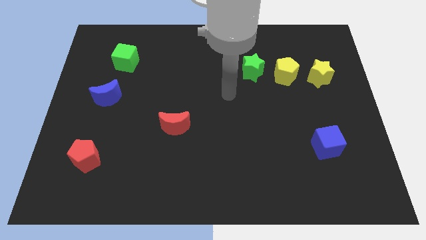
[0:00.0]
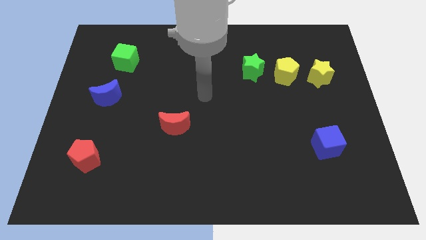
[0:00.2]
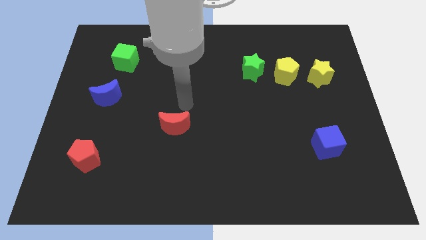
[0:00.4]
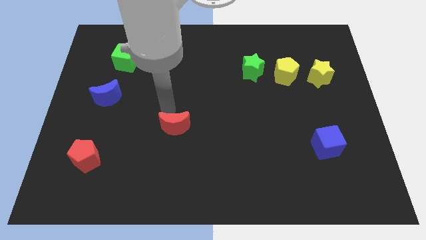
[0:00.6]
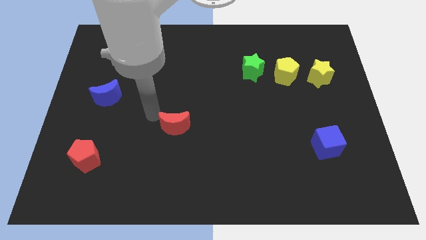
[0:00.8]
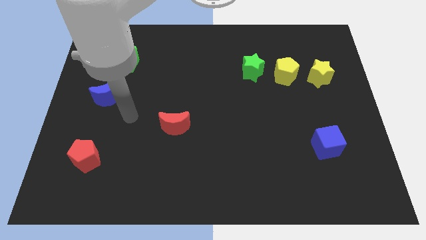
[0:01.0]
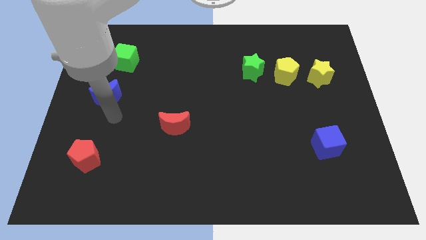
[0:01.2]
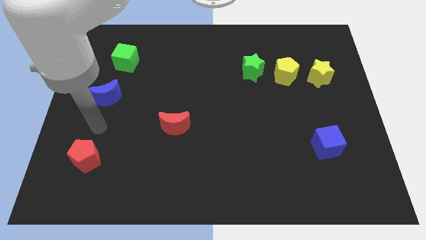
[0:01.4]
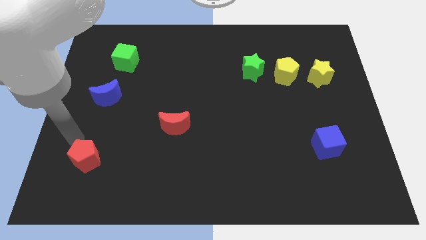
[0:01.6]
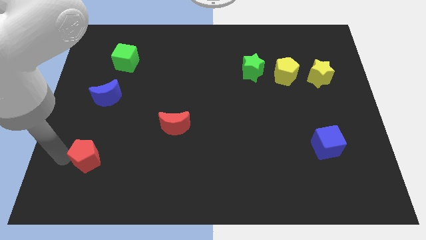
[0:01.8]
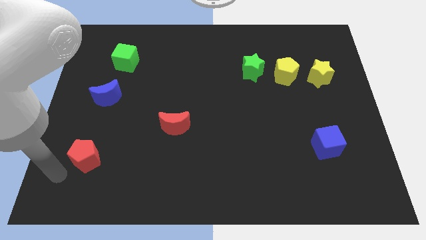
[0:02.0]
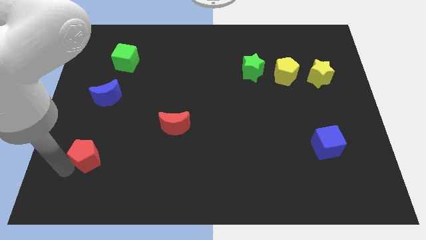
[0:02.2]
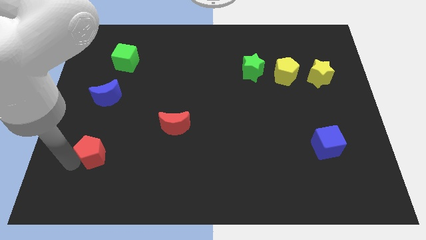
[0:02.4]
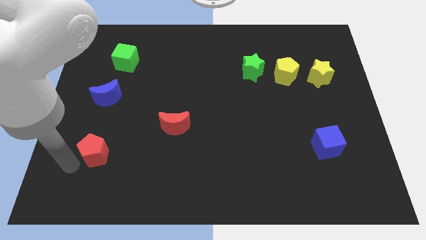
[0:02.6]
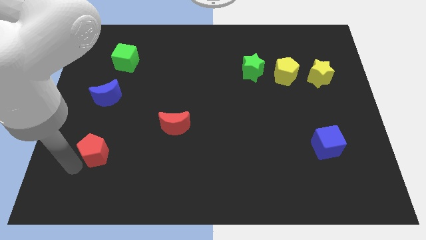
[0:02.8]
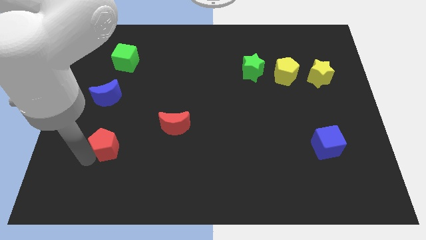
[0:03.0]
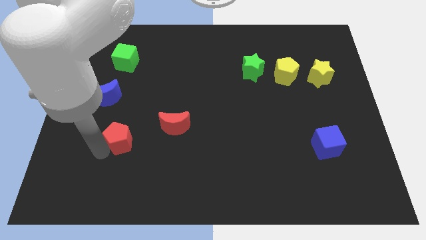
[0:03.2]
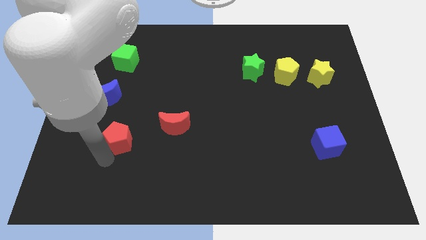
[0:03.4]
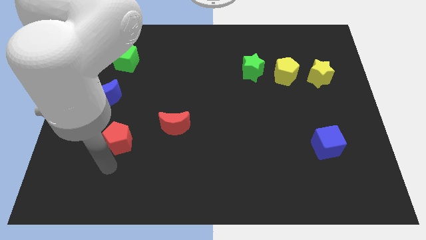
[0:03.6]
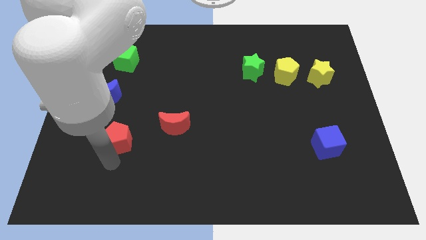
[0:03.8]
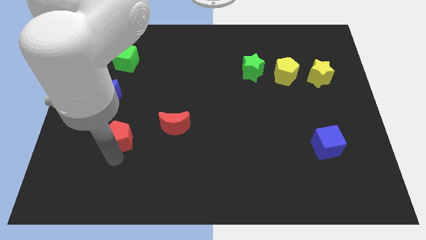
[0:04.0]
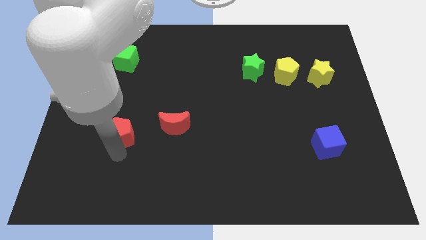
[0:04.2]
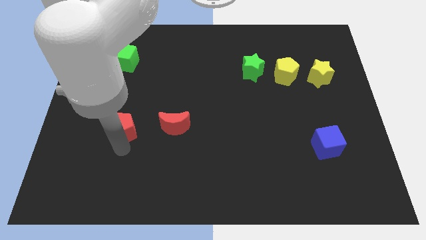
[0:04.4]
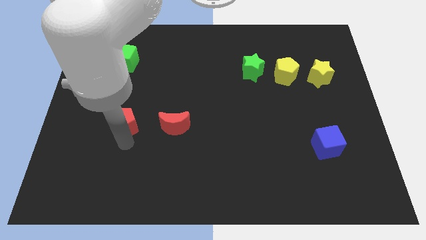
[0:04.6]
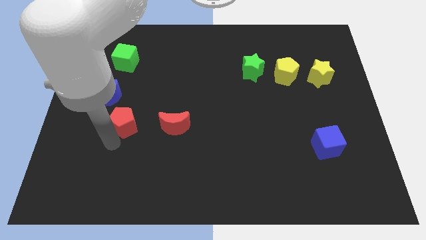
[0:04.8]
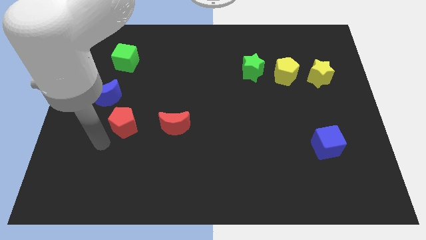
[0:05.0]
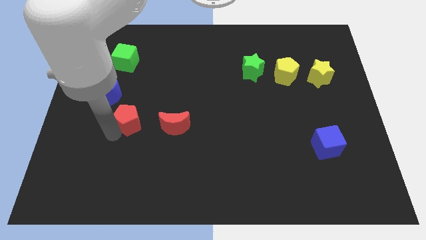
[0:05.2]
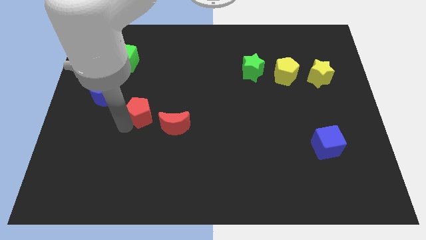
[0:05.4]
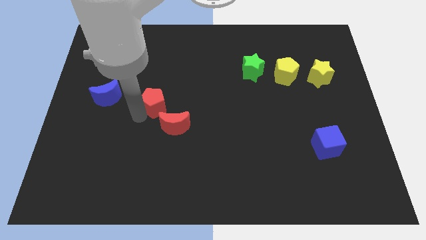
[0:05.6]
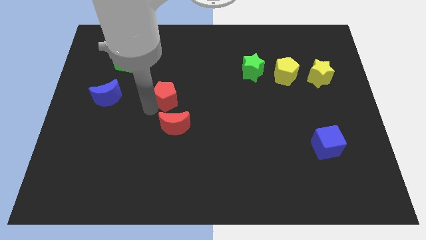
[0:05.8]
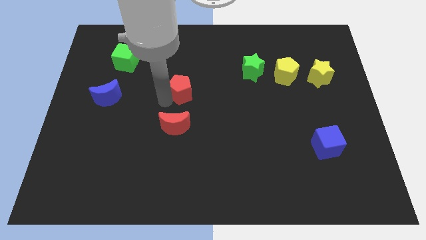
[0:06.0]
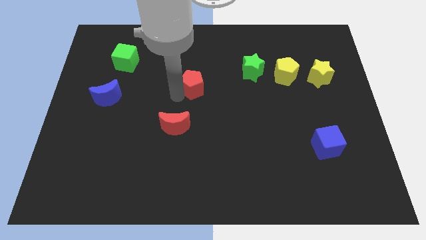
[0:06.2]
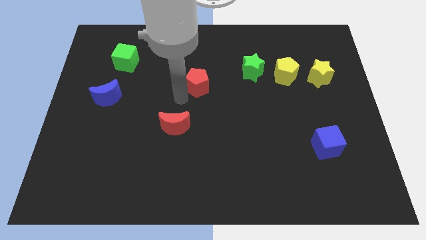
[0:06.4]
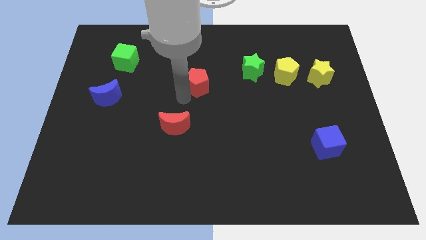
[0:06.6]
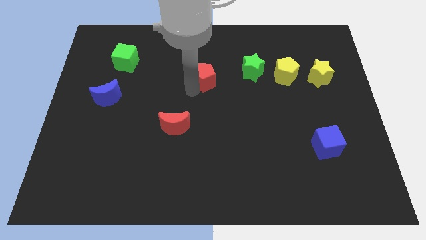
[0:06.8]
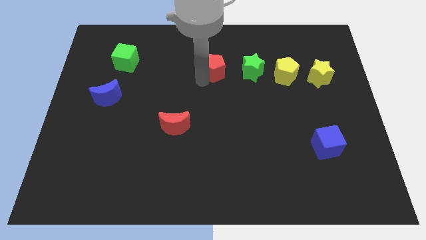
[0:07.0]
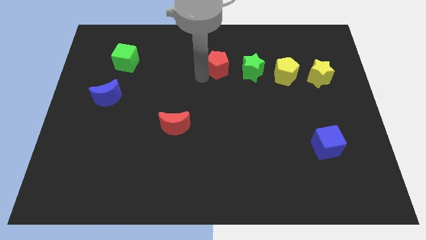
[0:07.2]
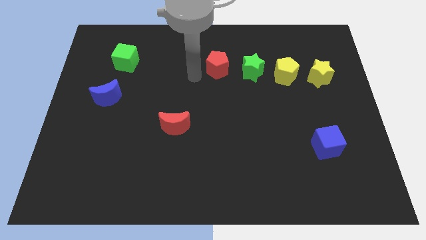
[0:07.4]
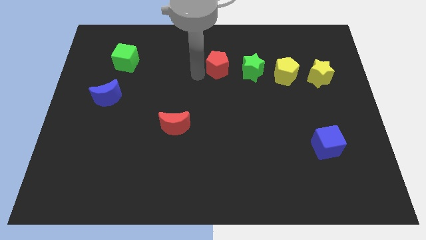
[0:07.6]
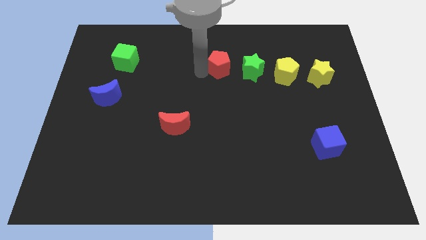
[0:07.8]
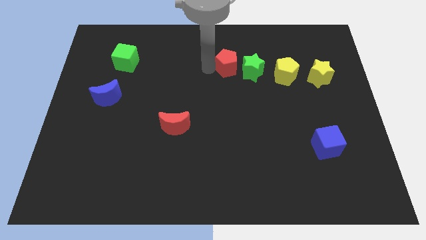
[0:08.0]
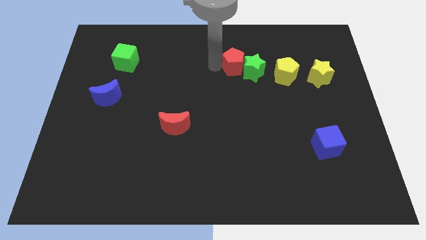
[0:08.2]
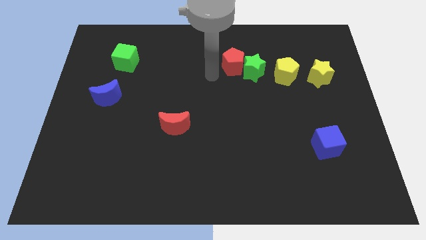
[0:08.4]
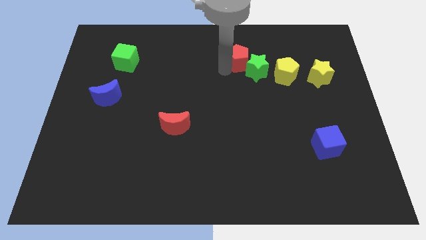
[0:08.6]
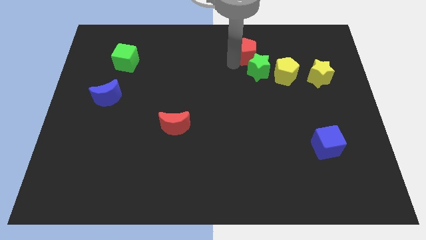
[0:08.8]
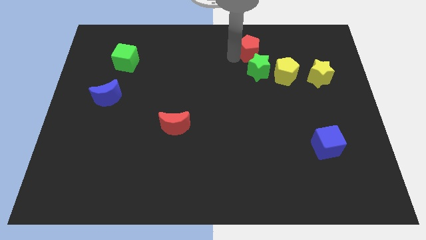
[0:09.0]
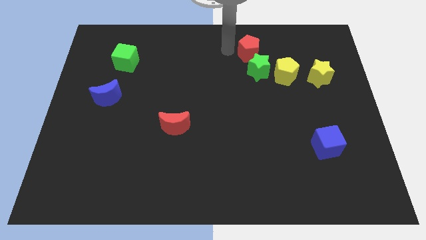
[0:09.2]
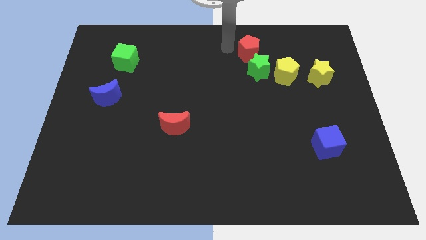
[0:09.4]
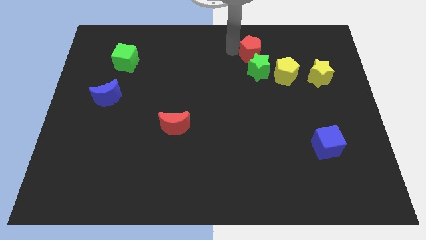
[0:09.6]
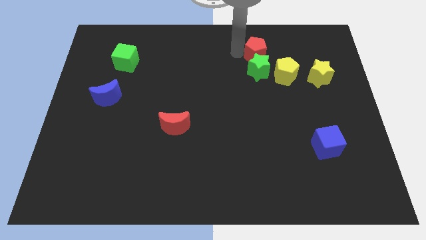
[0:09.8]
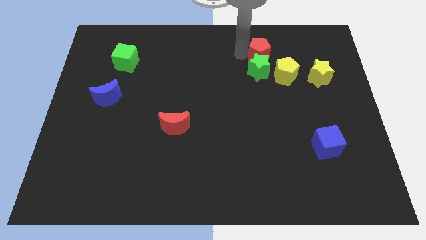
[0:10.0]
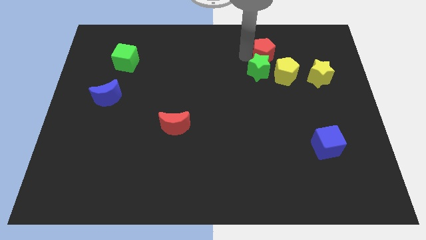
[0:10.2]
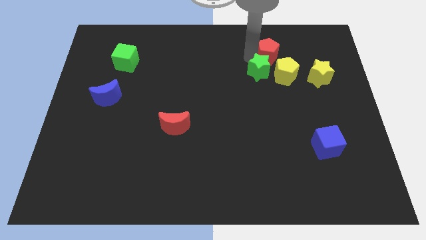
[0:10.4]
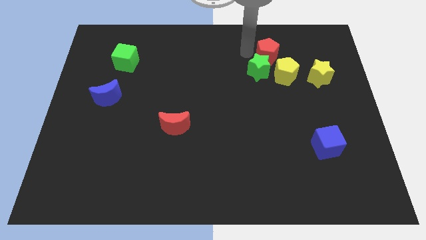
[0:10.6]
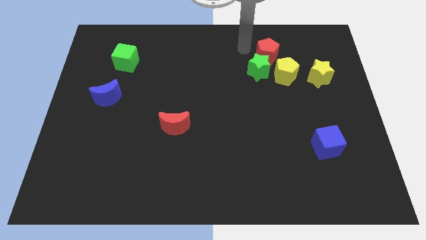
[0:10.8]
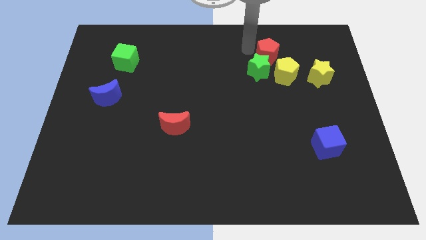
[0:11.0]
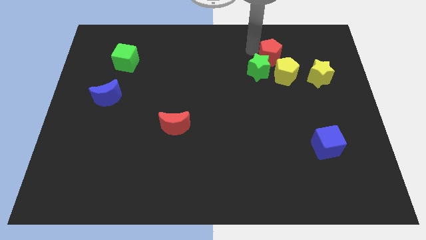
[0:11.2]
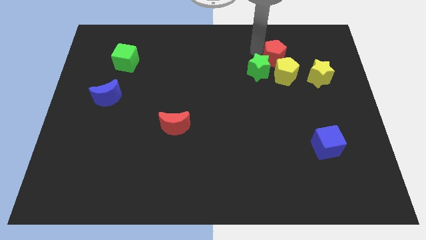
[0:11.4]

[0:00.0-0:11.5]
slide the red pentagon to the right side of the green star

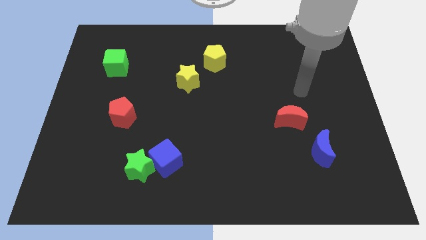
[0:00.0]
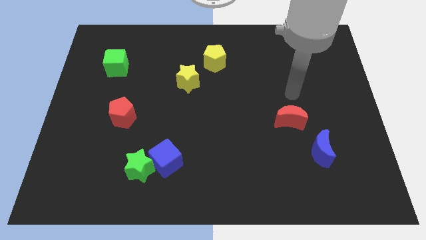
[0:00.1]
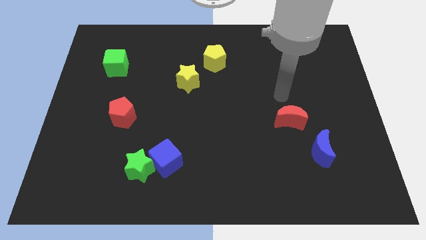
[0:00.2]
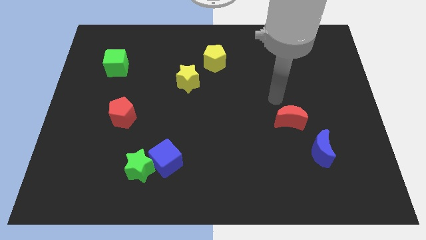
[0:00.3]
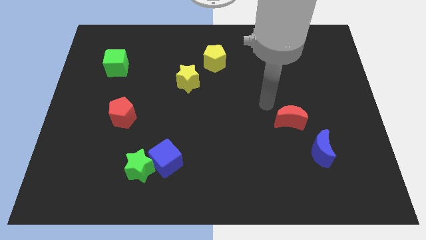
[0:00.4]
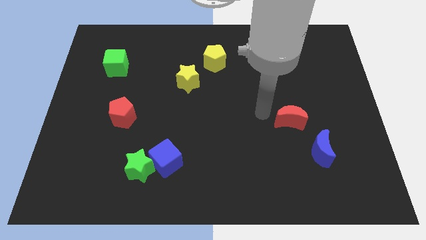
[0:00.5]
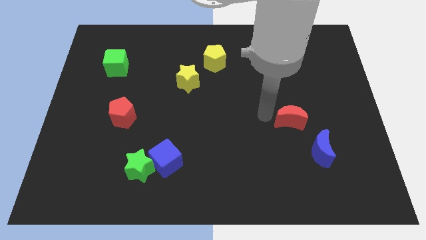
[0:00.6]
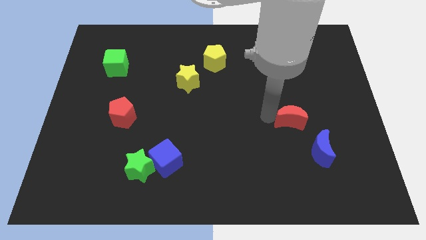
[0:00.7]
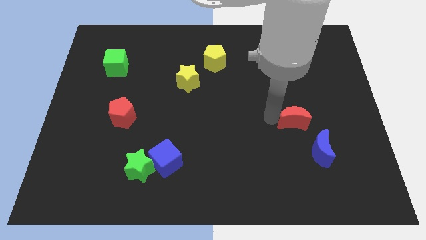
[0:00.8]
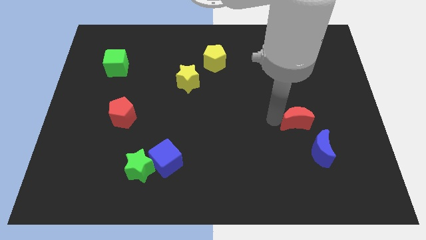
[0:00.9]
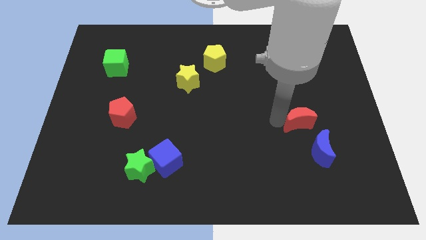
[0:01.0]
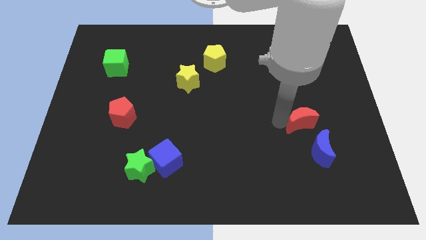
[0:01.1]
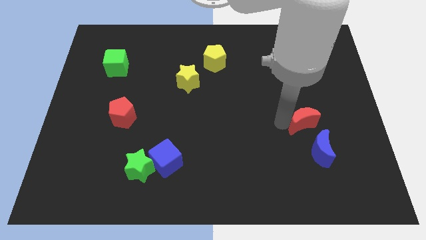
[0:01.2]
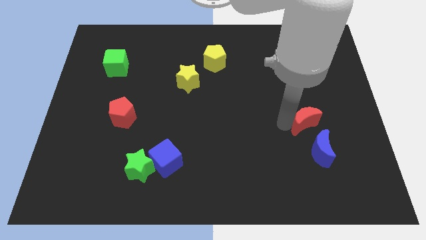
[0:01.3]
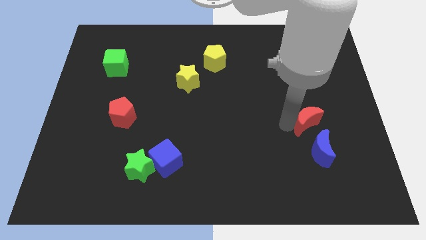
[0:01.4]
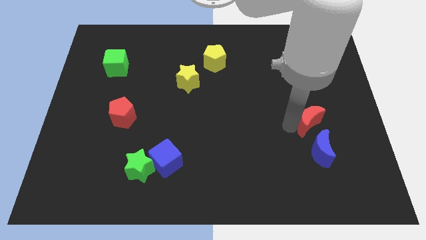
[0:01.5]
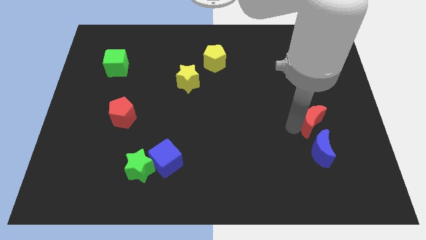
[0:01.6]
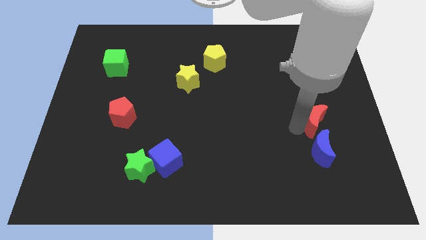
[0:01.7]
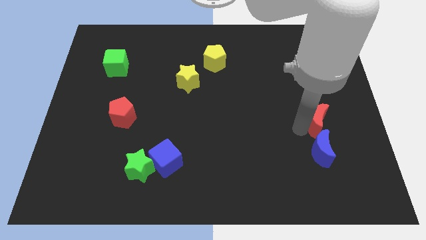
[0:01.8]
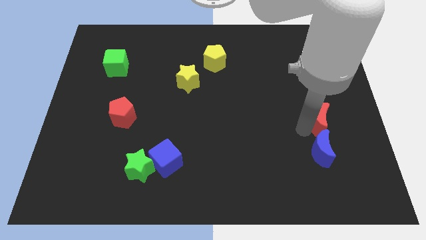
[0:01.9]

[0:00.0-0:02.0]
move the red moon diagonally up and to the right of the blue moon
